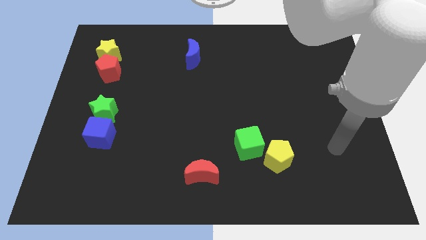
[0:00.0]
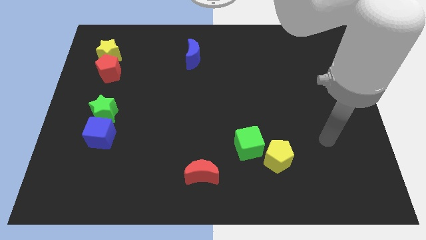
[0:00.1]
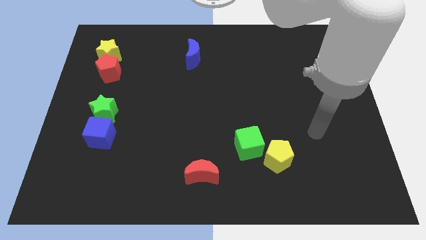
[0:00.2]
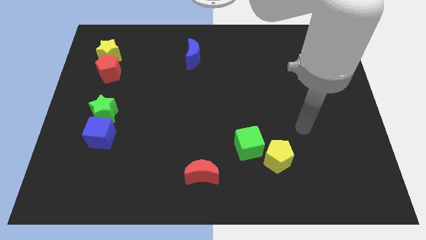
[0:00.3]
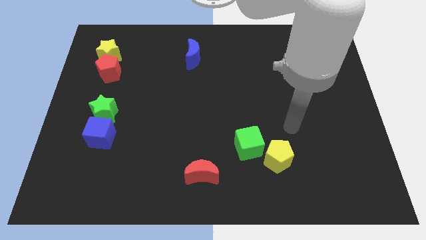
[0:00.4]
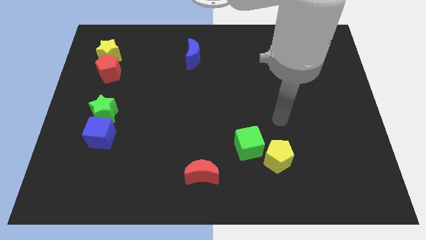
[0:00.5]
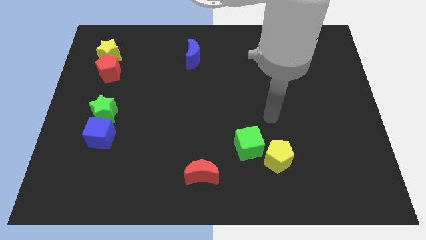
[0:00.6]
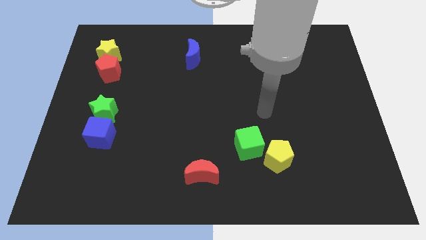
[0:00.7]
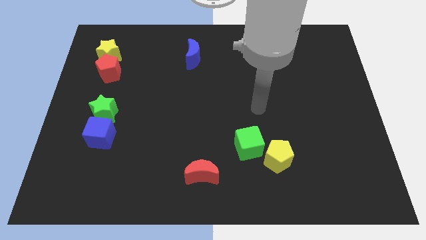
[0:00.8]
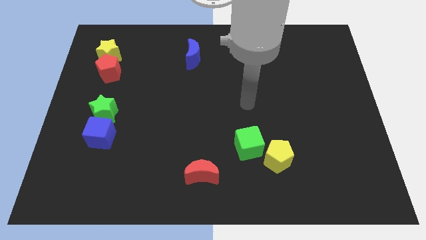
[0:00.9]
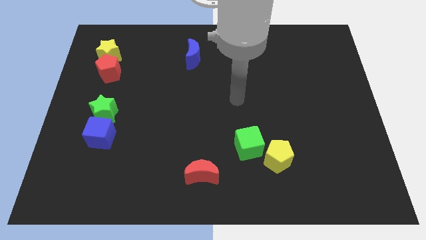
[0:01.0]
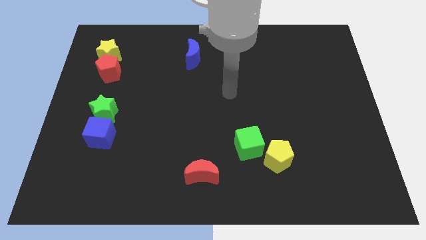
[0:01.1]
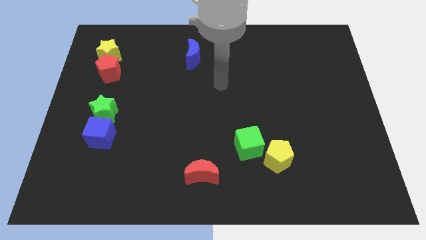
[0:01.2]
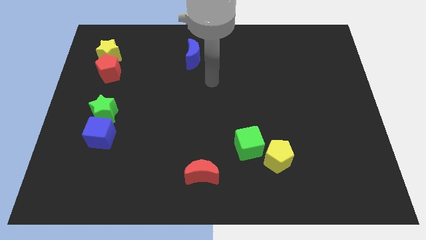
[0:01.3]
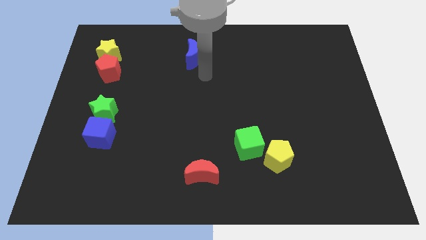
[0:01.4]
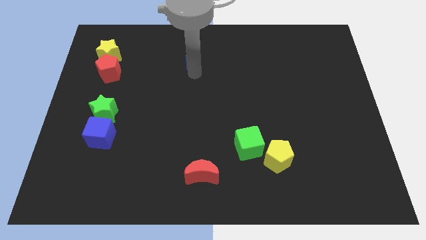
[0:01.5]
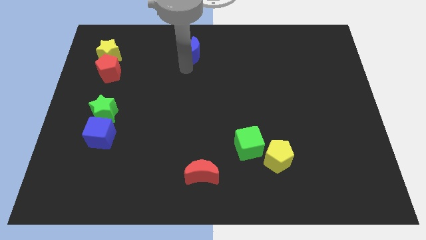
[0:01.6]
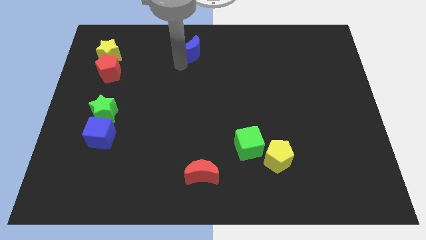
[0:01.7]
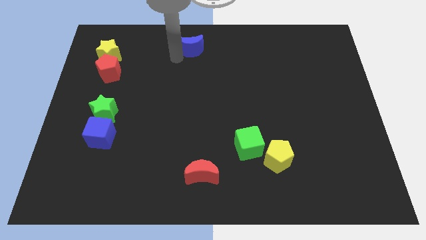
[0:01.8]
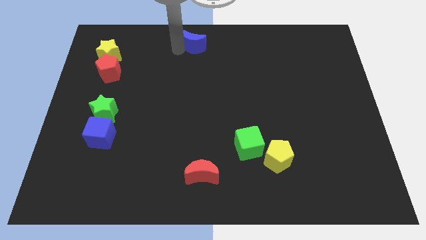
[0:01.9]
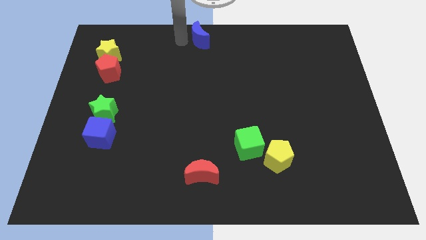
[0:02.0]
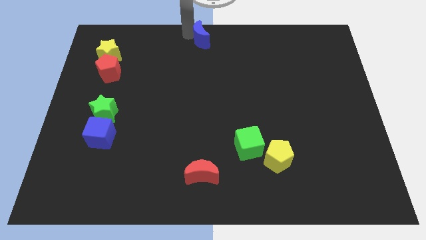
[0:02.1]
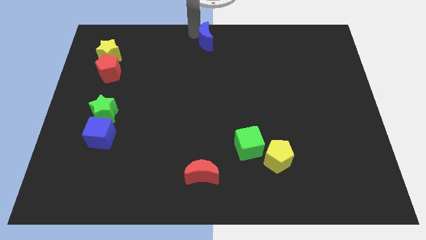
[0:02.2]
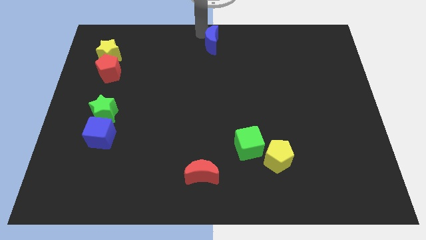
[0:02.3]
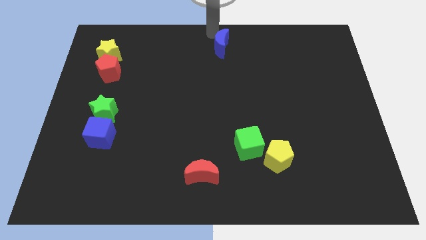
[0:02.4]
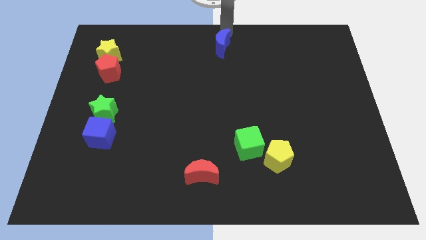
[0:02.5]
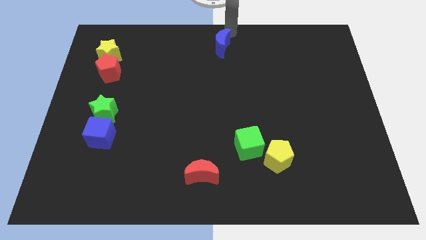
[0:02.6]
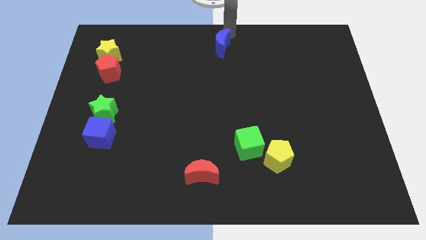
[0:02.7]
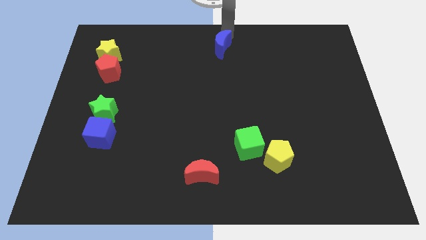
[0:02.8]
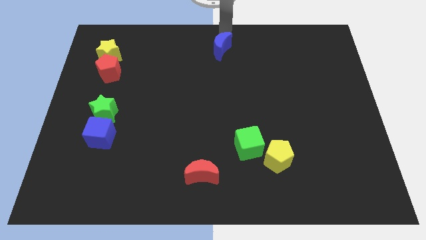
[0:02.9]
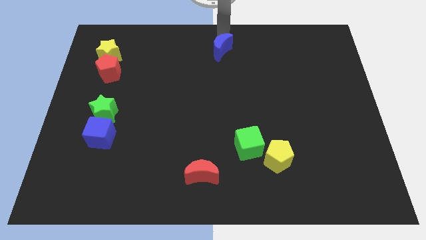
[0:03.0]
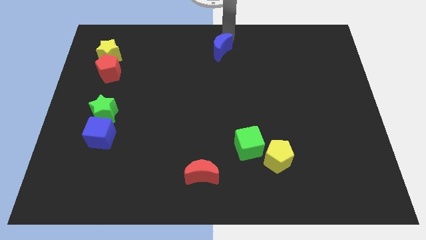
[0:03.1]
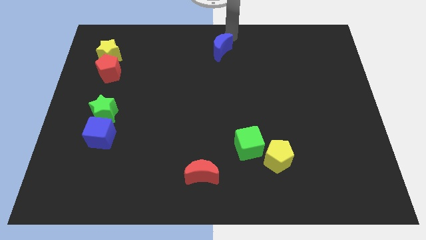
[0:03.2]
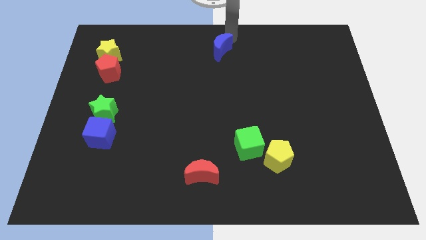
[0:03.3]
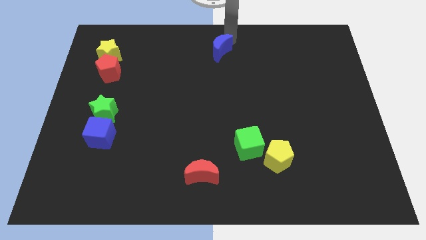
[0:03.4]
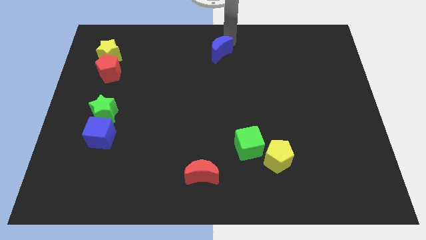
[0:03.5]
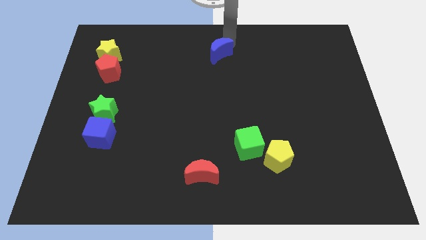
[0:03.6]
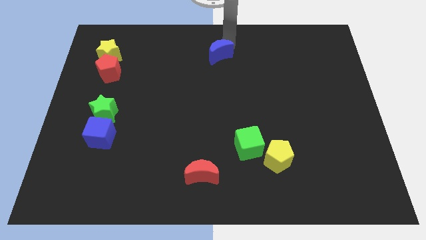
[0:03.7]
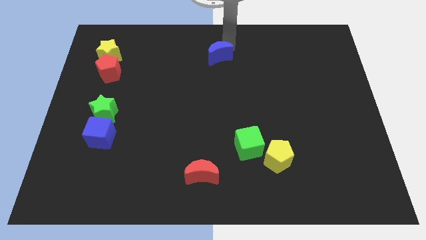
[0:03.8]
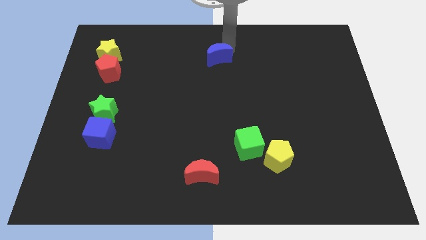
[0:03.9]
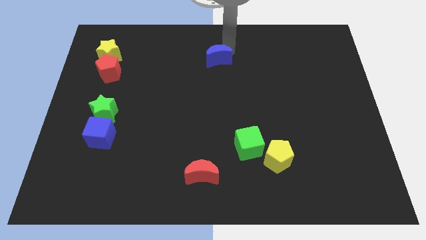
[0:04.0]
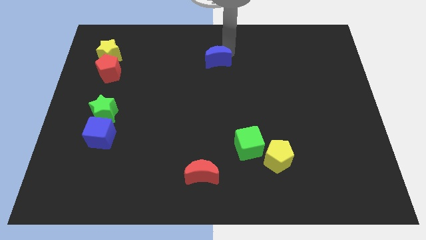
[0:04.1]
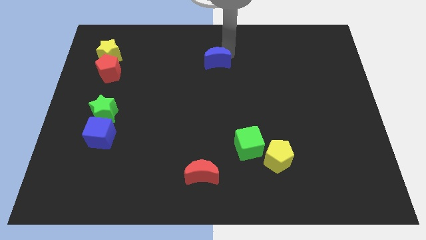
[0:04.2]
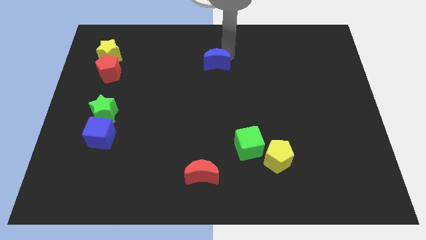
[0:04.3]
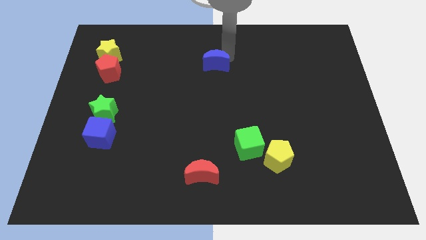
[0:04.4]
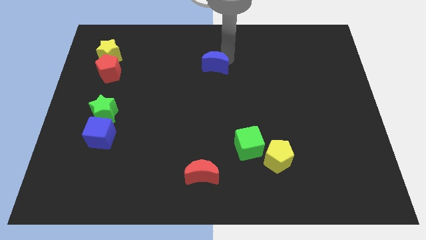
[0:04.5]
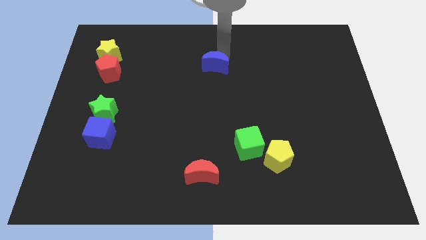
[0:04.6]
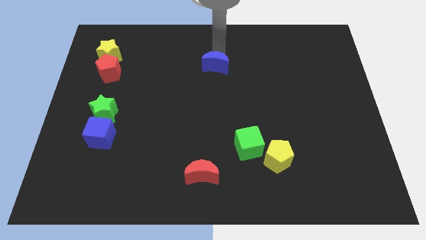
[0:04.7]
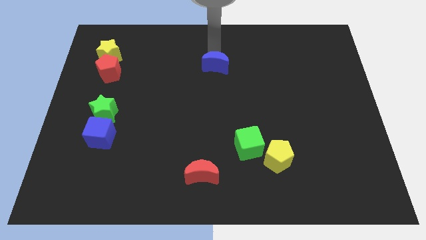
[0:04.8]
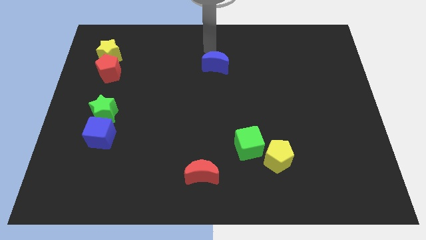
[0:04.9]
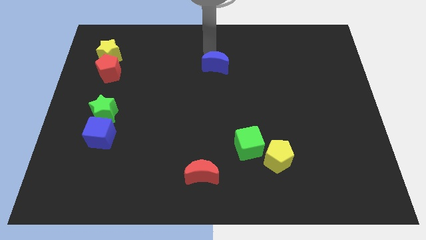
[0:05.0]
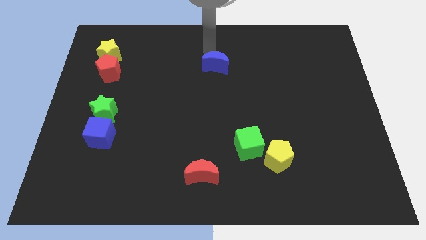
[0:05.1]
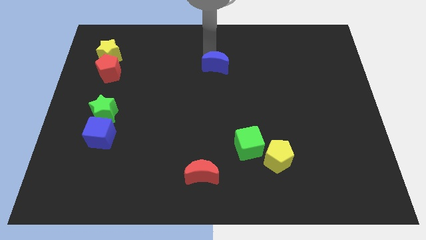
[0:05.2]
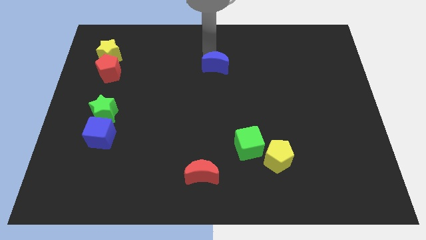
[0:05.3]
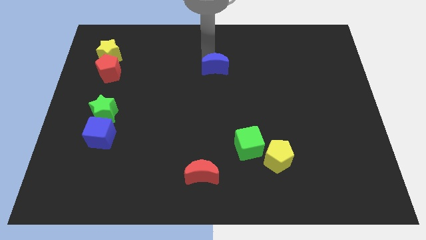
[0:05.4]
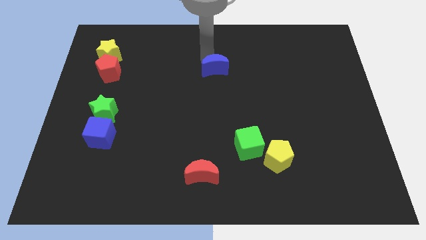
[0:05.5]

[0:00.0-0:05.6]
move the blue moon diagonally down and right a little bit

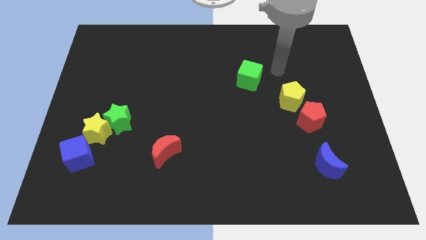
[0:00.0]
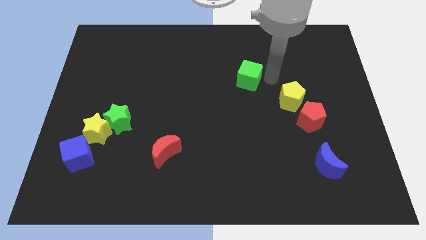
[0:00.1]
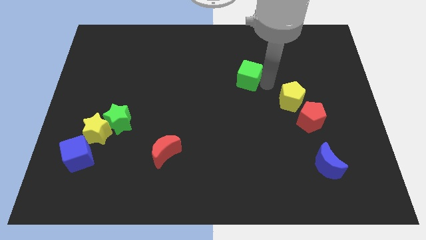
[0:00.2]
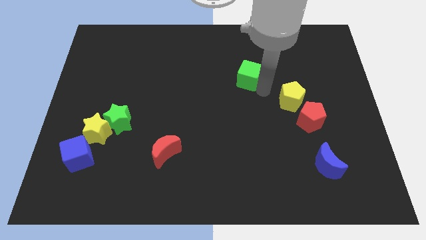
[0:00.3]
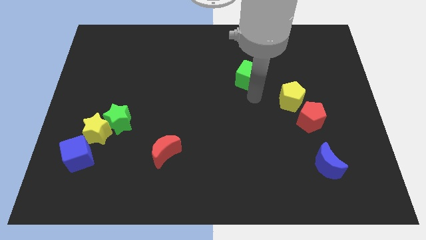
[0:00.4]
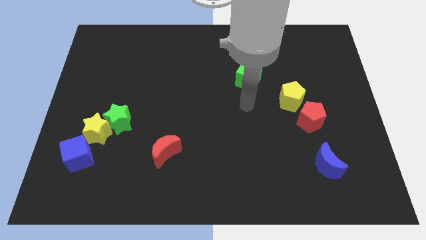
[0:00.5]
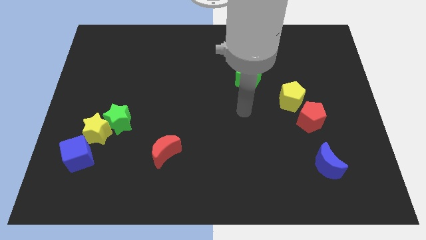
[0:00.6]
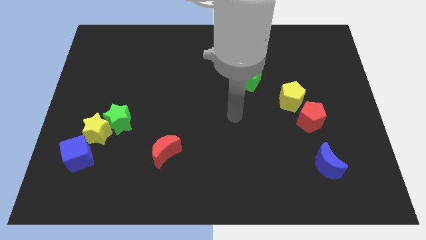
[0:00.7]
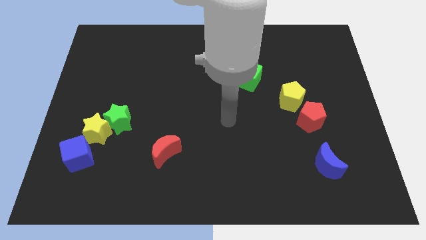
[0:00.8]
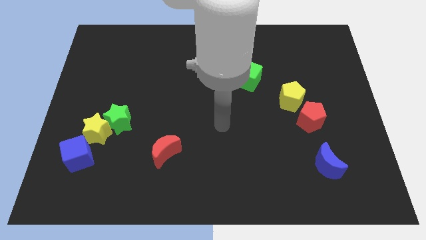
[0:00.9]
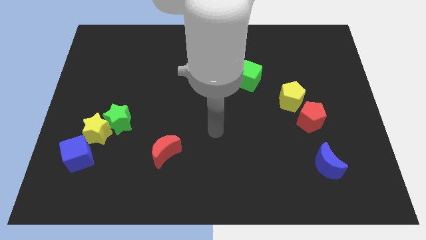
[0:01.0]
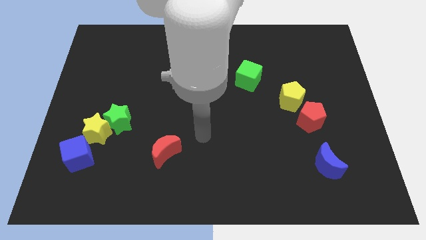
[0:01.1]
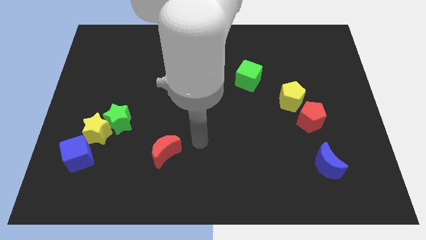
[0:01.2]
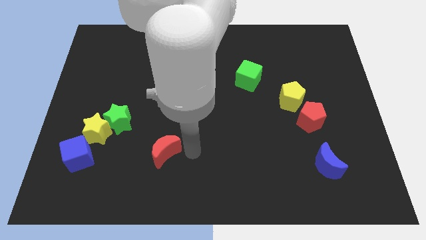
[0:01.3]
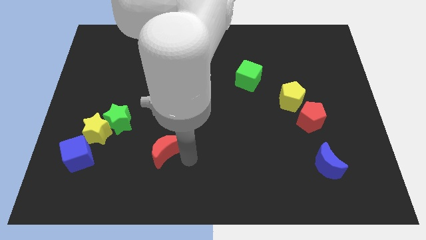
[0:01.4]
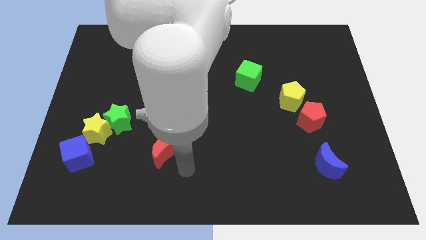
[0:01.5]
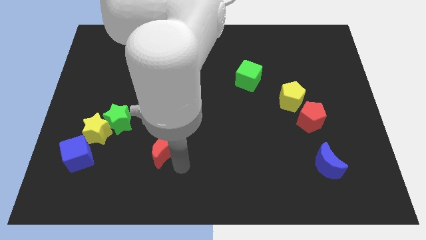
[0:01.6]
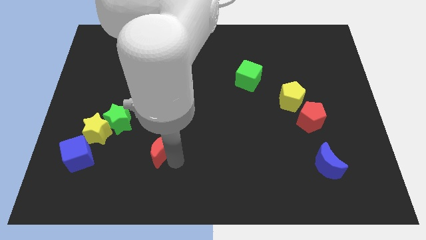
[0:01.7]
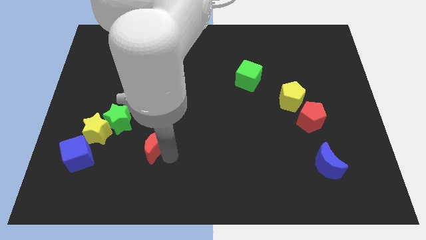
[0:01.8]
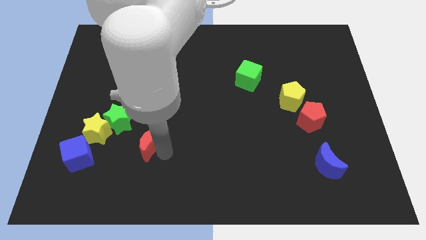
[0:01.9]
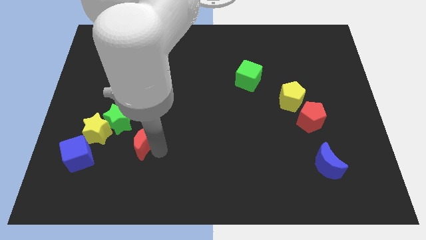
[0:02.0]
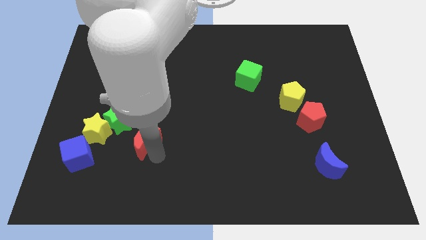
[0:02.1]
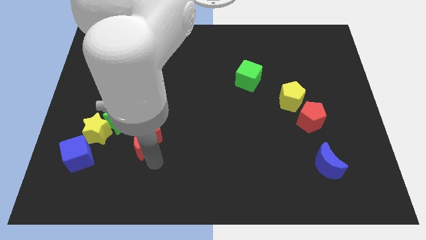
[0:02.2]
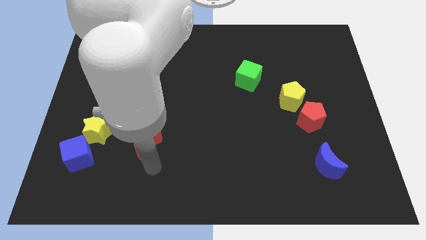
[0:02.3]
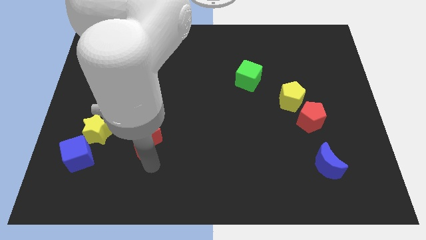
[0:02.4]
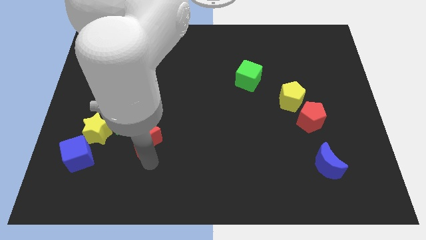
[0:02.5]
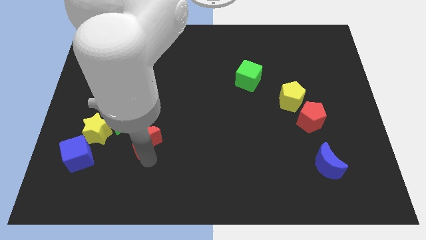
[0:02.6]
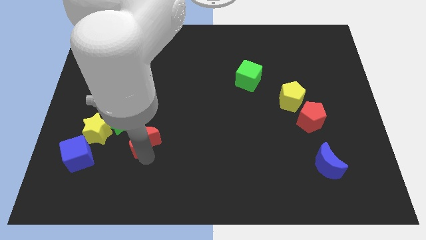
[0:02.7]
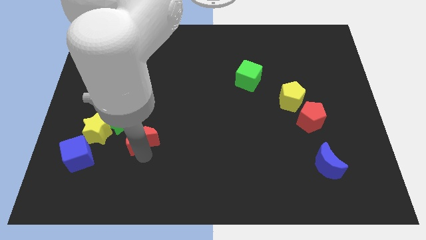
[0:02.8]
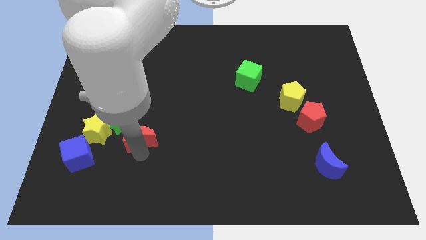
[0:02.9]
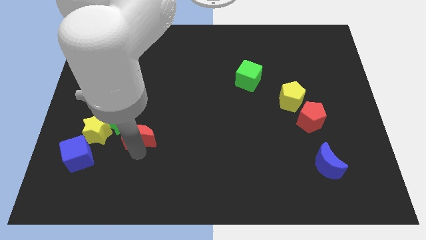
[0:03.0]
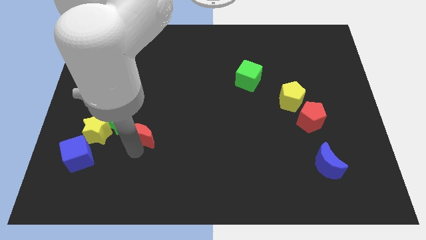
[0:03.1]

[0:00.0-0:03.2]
move the red moon up and left diagonally a little
